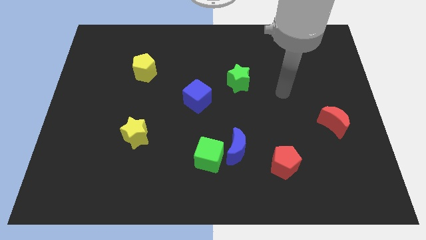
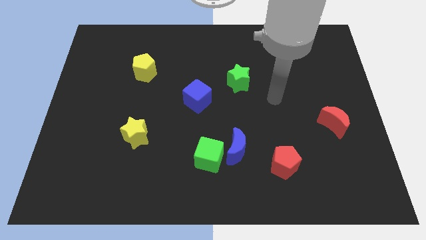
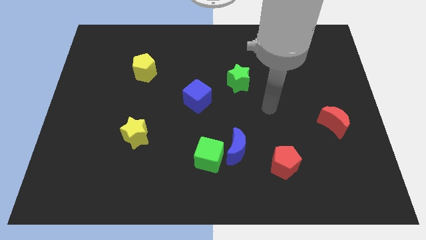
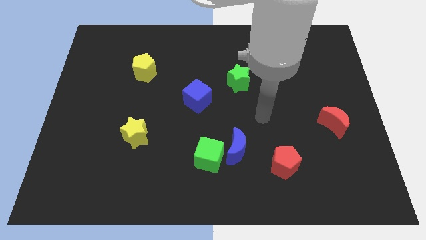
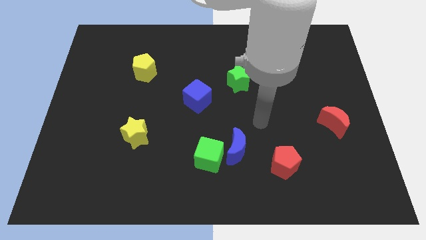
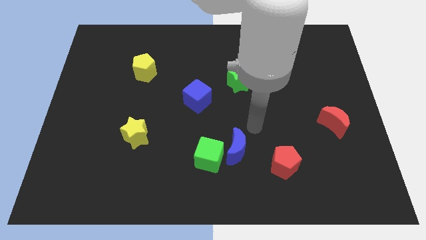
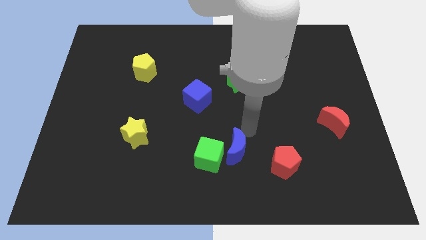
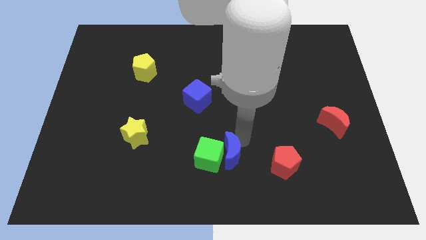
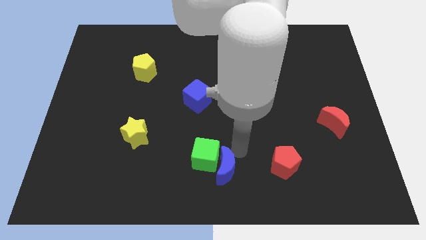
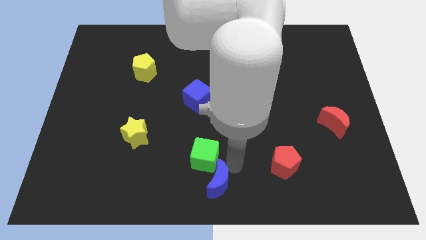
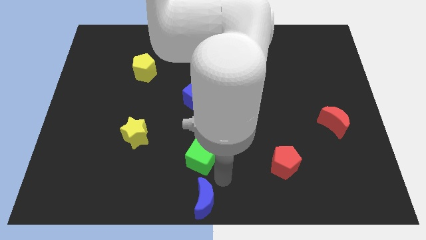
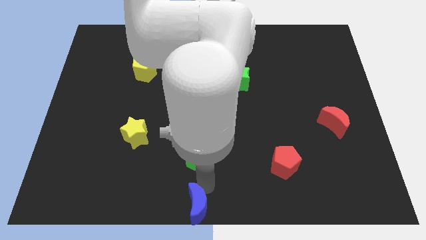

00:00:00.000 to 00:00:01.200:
pull the green cube apart from the blue moon

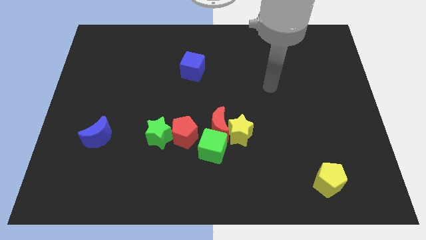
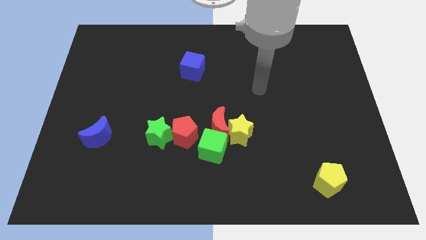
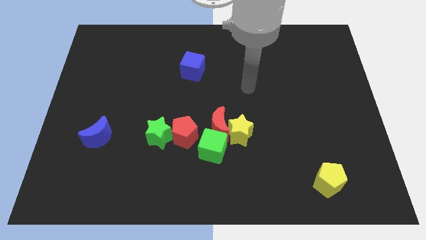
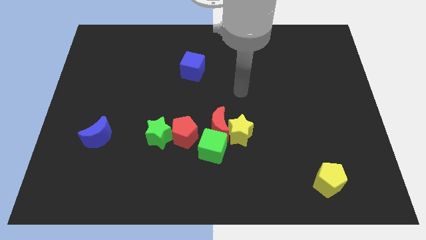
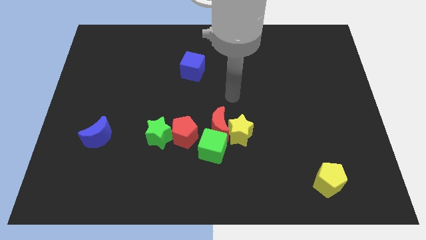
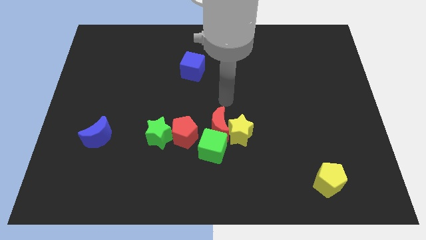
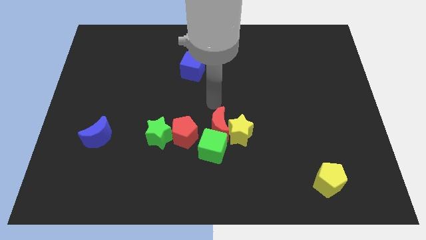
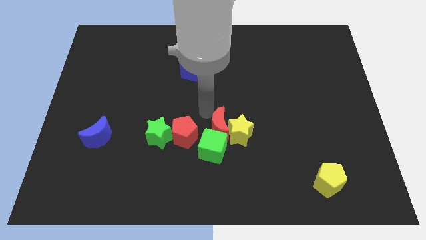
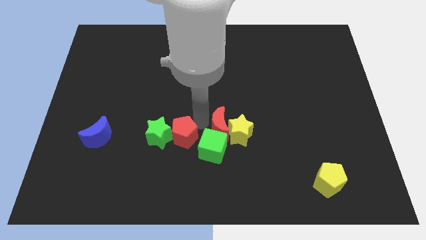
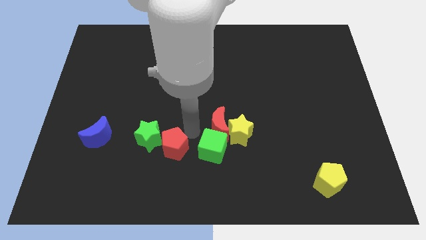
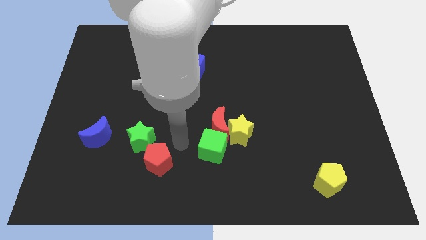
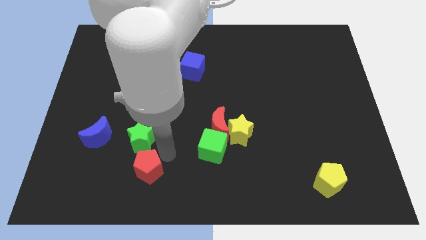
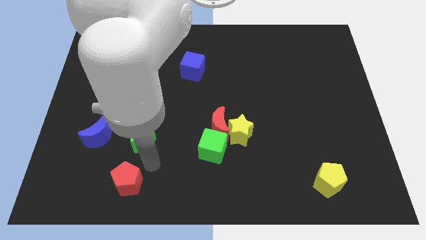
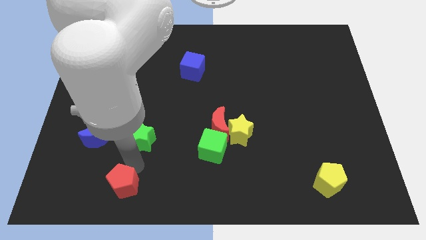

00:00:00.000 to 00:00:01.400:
pull the green star apart from the red pentagon

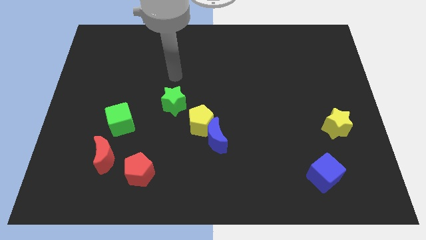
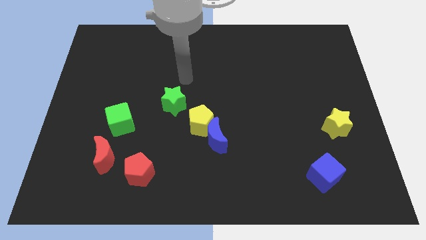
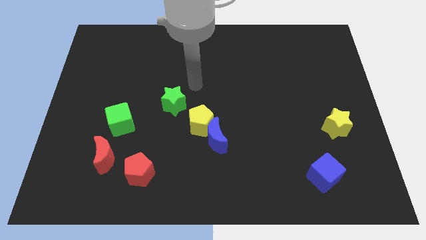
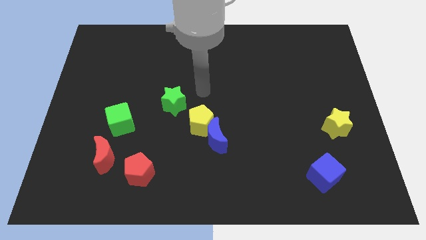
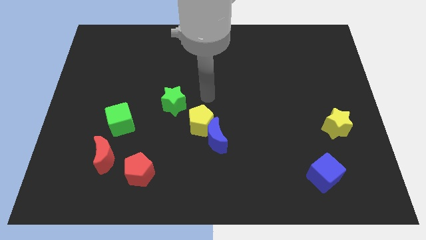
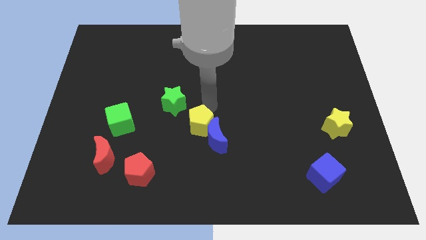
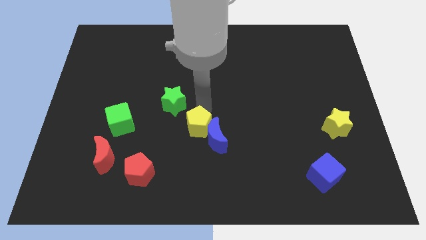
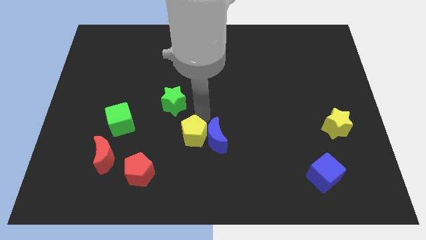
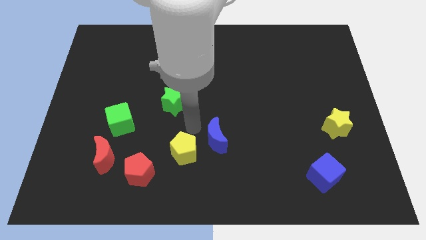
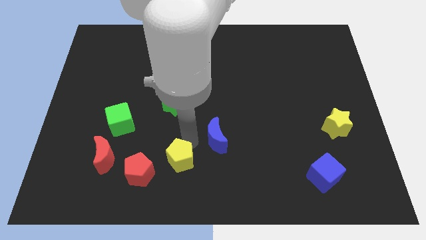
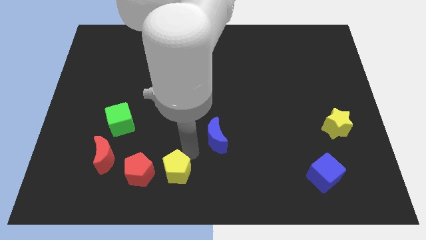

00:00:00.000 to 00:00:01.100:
separate the blue moon from the yellow pentagon

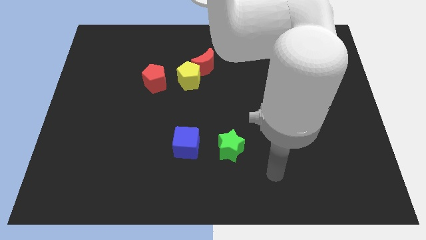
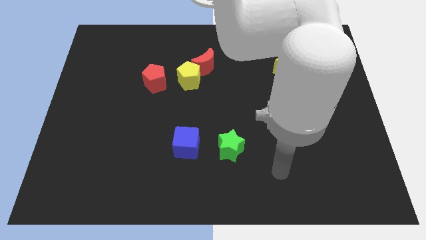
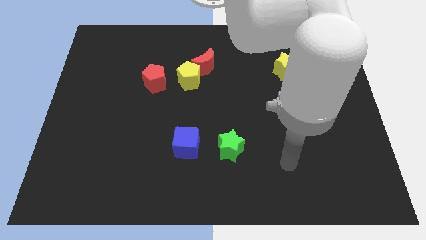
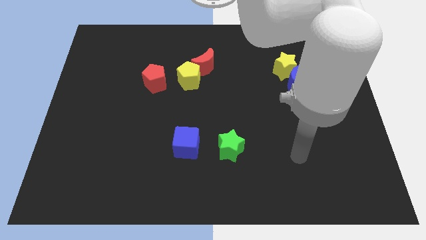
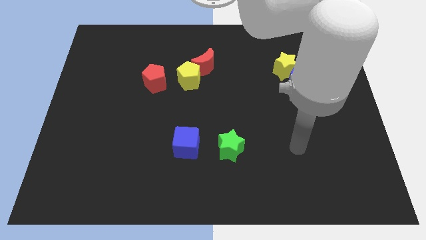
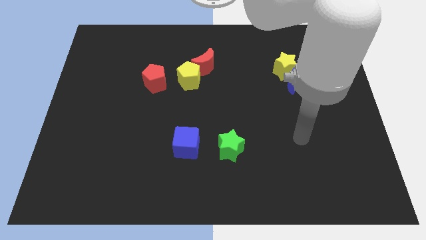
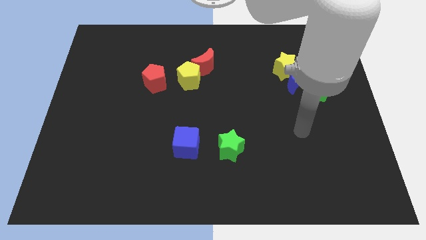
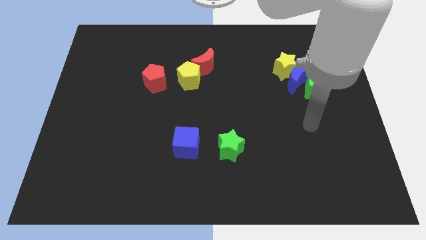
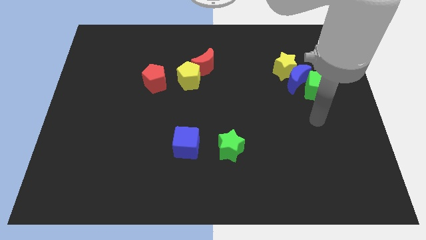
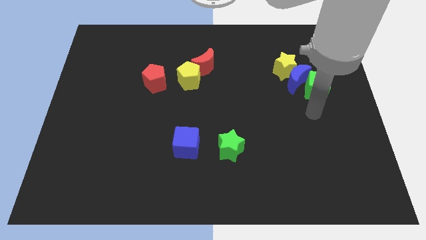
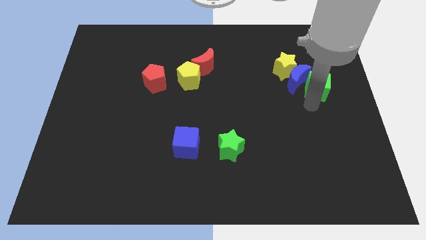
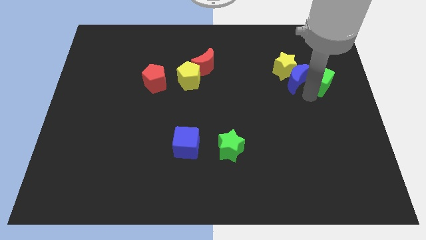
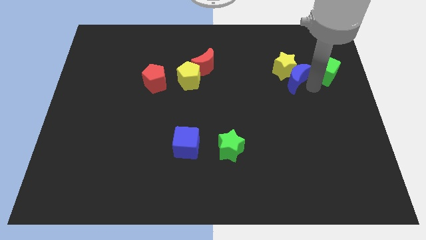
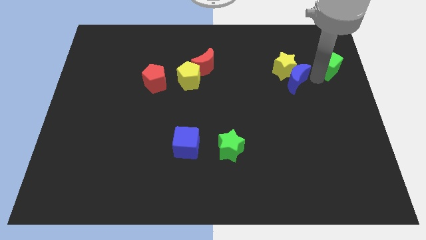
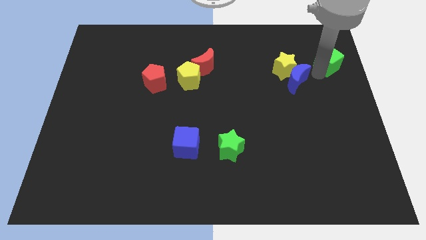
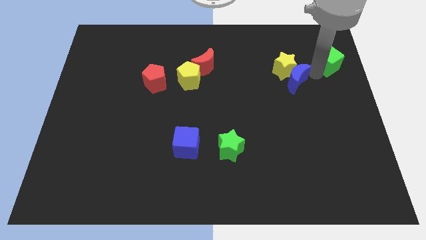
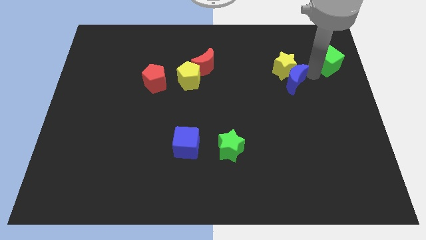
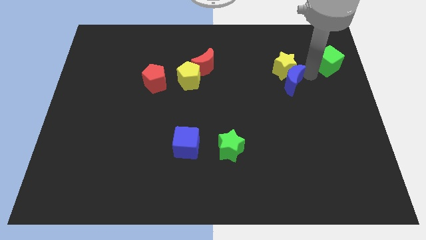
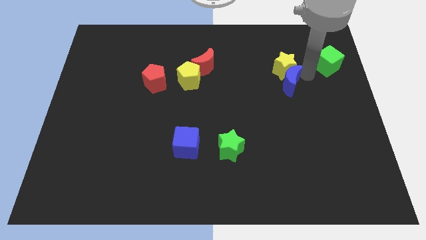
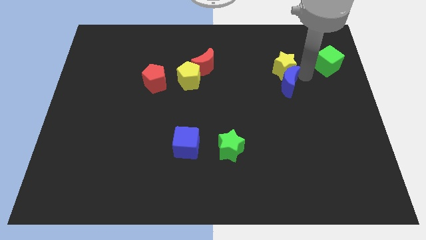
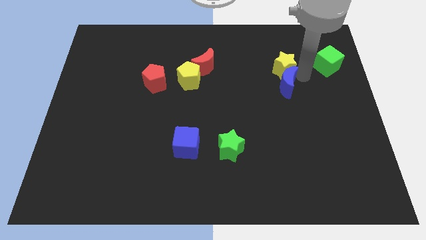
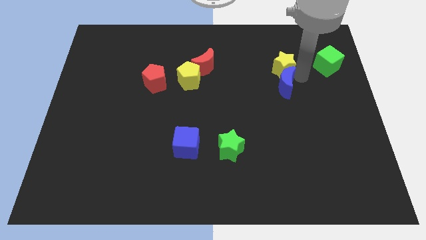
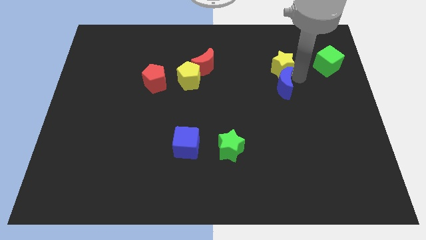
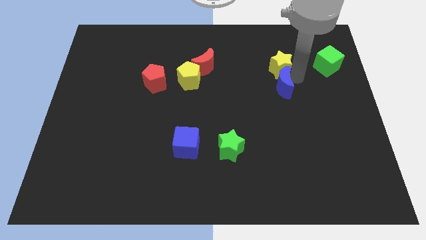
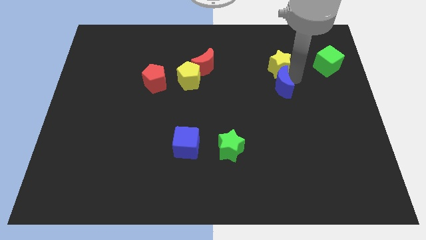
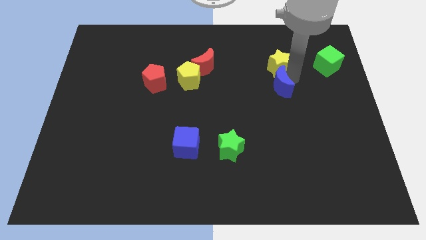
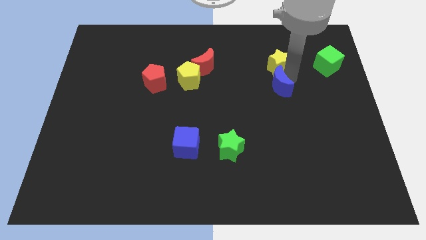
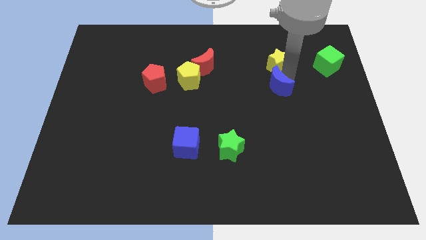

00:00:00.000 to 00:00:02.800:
pull the blue moon apart from the yellow star and green cube

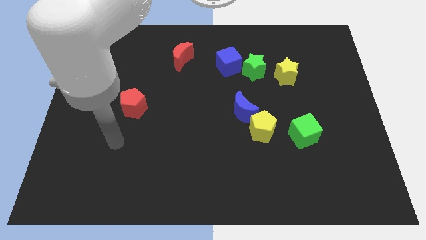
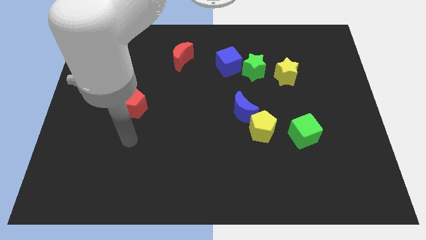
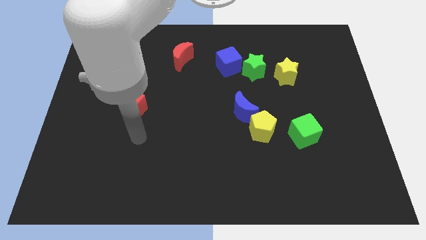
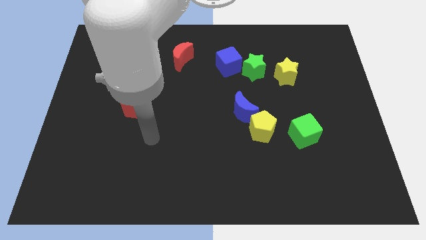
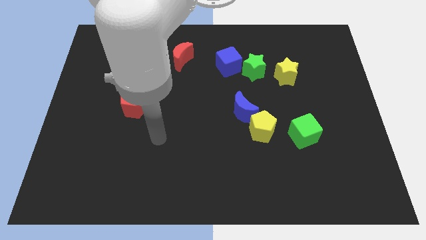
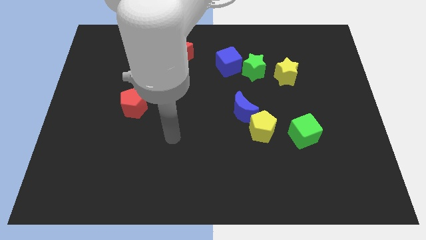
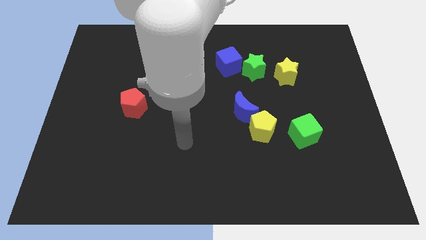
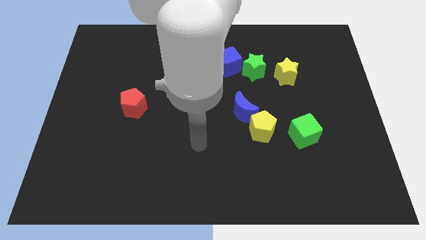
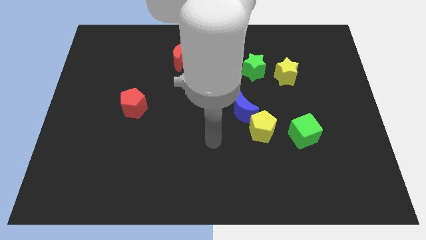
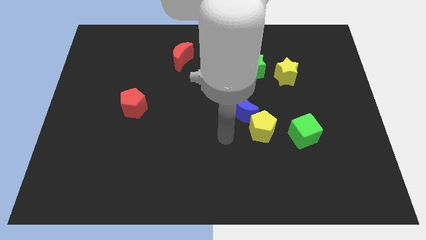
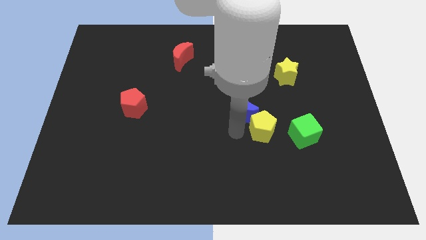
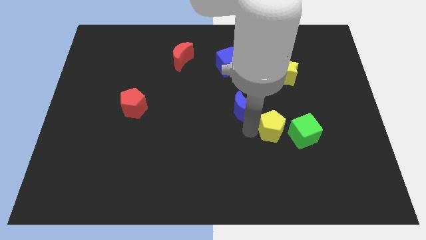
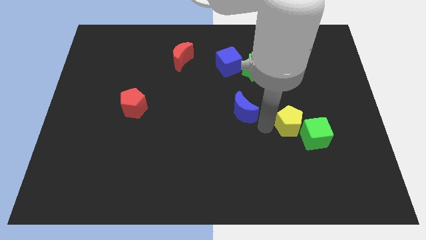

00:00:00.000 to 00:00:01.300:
pull the blue moon apart from the yellow pentagon

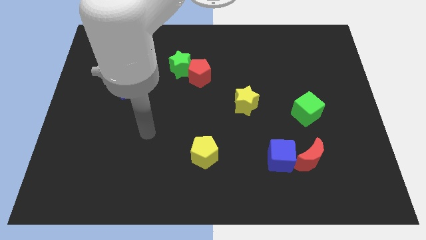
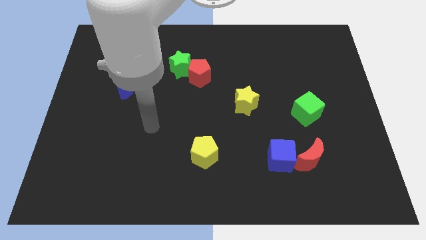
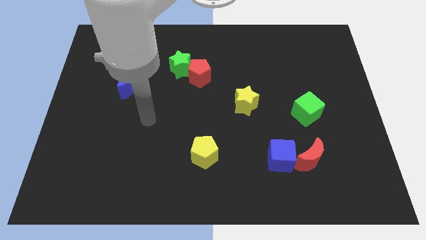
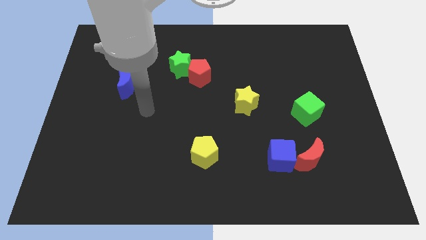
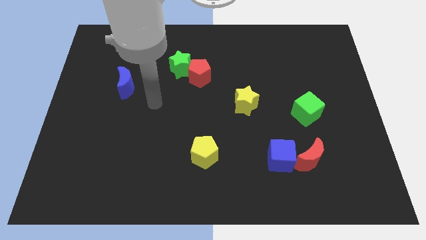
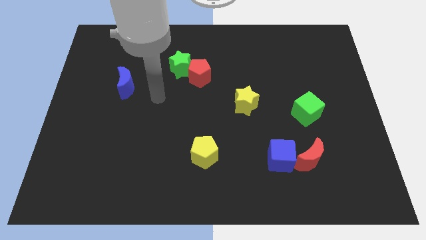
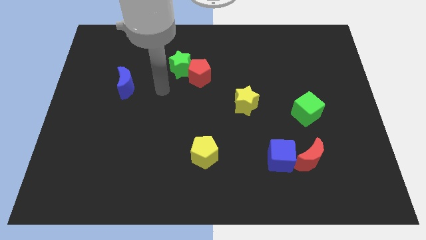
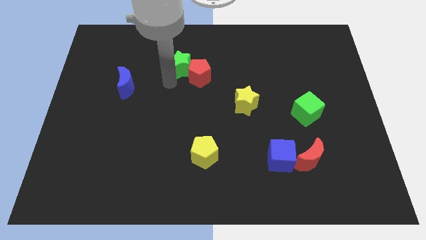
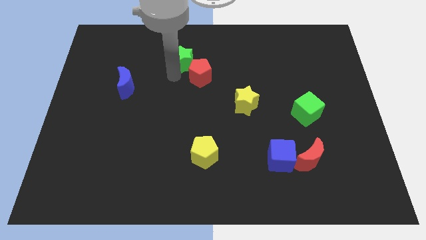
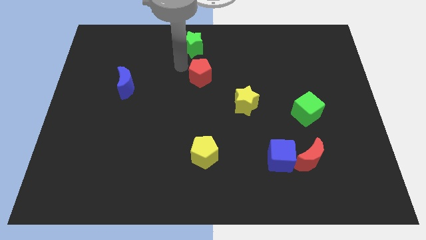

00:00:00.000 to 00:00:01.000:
pull the red pentagon apart from the green star

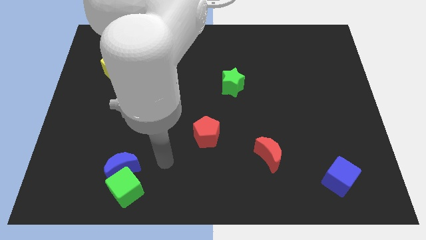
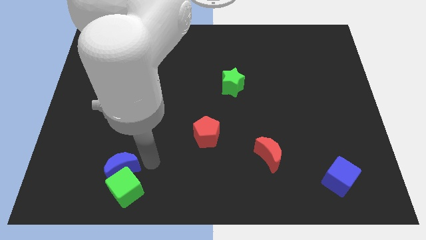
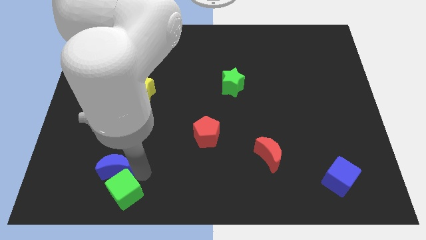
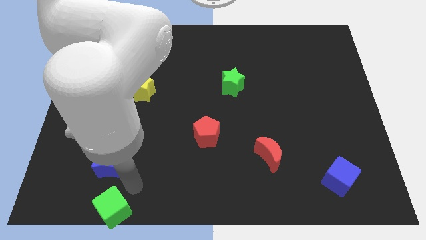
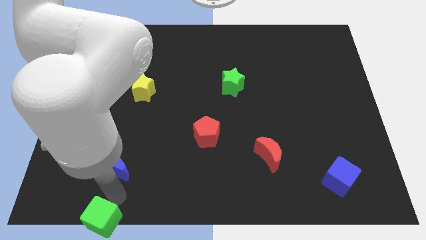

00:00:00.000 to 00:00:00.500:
separate the blue moon from the green cube
